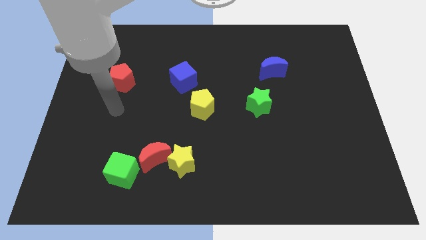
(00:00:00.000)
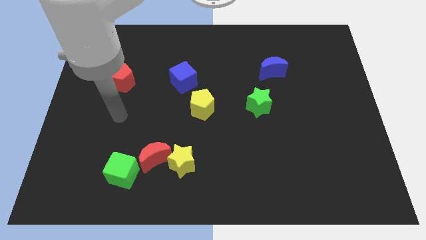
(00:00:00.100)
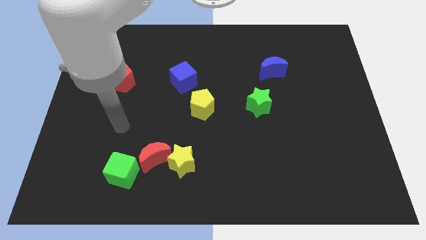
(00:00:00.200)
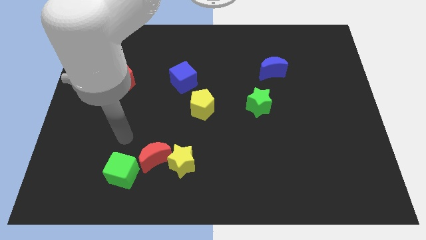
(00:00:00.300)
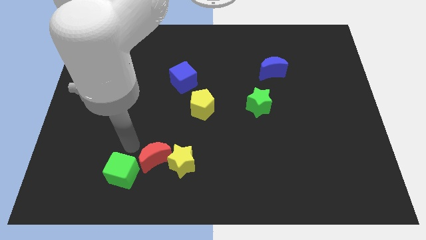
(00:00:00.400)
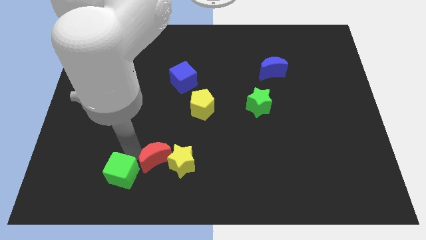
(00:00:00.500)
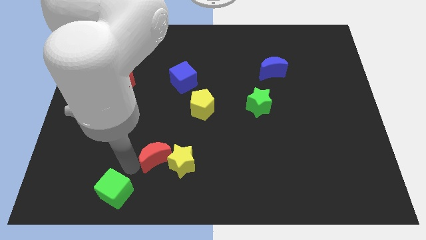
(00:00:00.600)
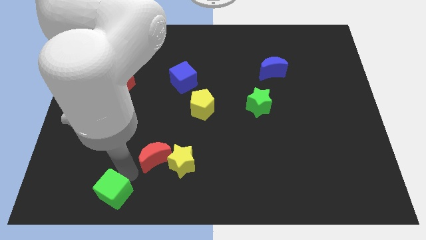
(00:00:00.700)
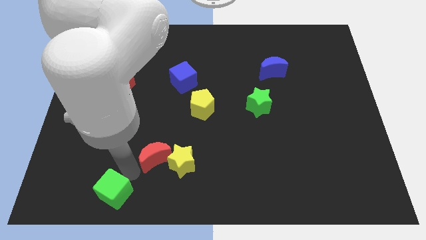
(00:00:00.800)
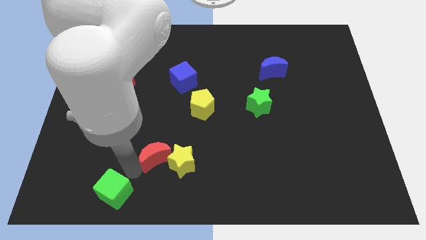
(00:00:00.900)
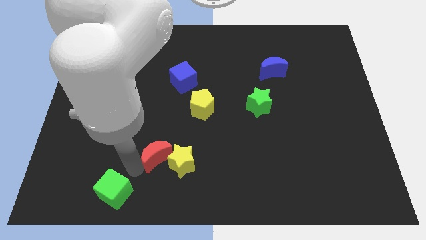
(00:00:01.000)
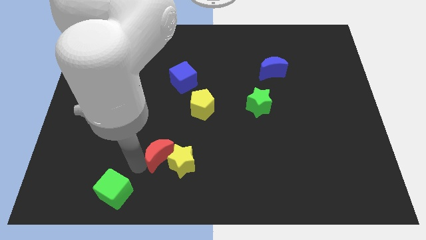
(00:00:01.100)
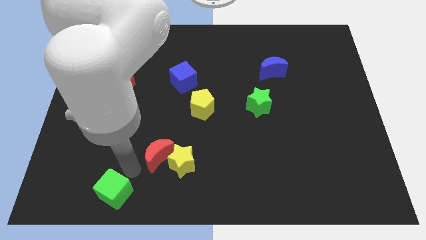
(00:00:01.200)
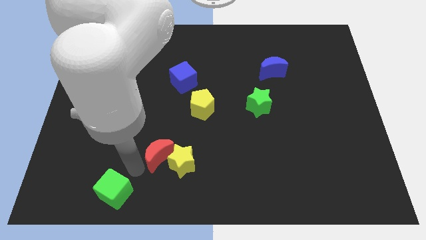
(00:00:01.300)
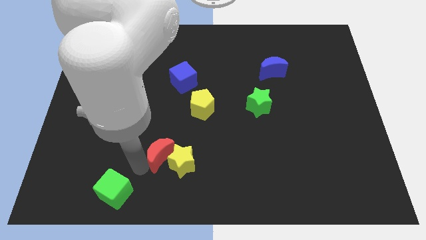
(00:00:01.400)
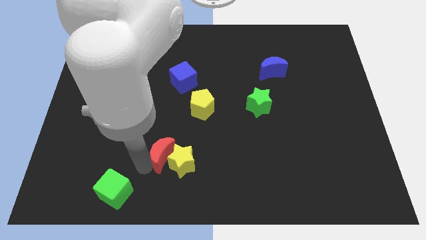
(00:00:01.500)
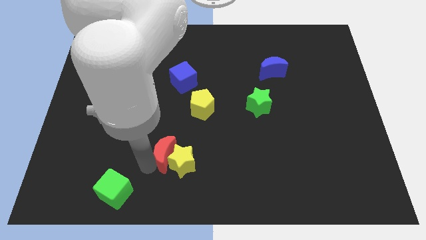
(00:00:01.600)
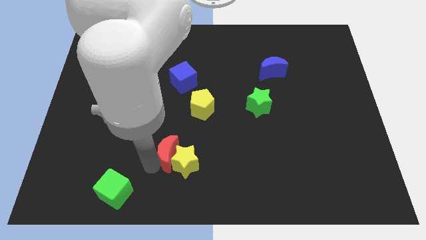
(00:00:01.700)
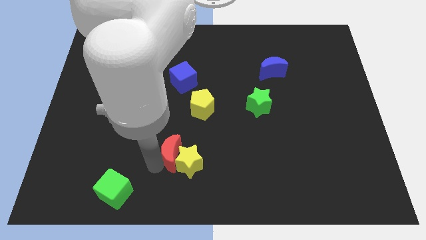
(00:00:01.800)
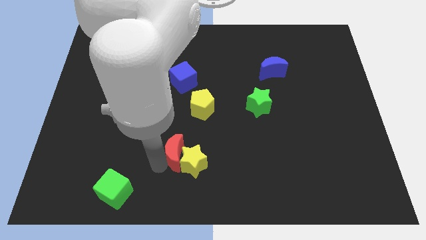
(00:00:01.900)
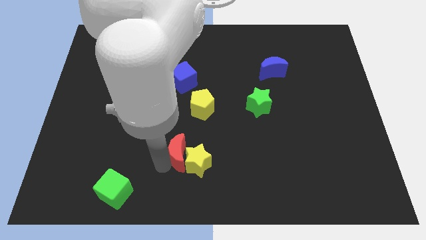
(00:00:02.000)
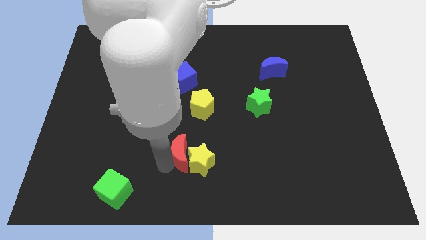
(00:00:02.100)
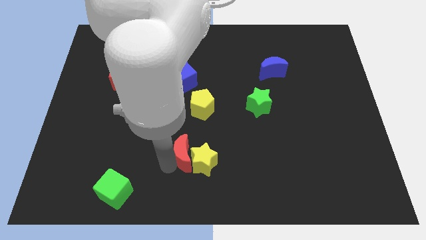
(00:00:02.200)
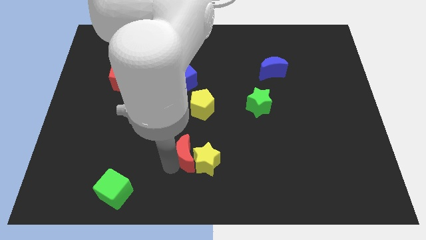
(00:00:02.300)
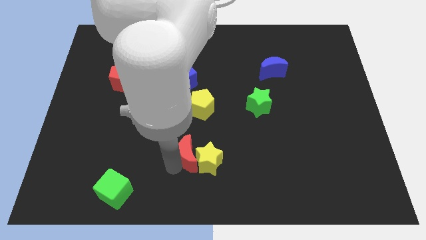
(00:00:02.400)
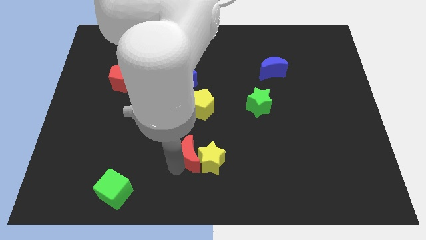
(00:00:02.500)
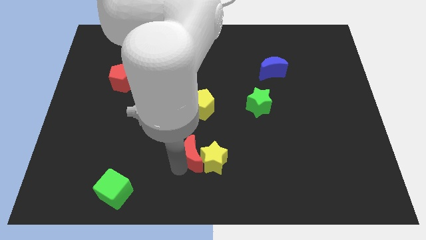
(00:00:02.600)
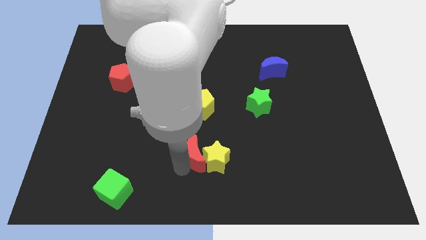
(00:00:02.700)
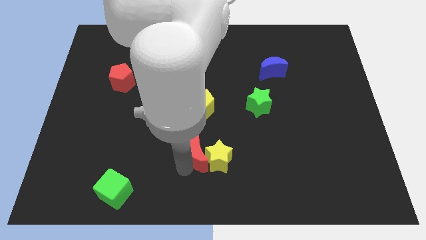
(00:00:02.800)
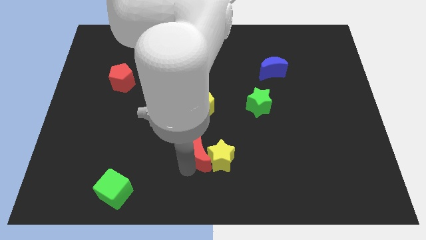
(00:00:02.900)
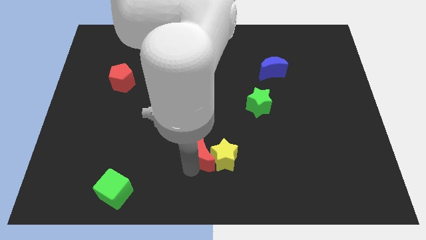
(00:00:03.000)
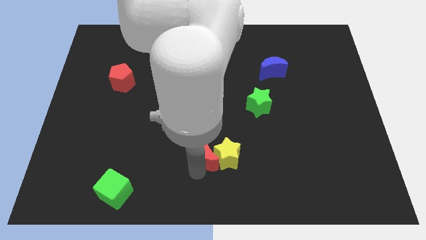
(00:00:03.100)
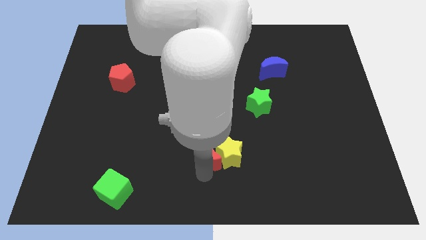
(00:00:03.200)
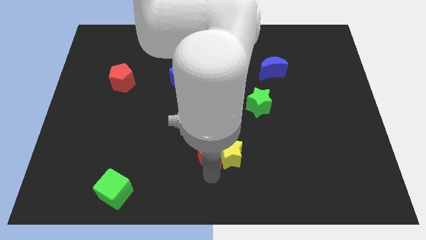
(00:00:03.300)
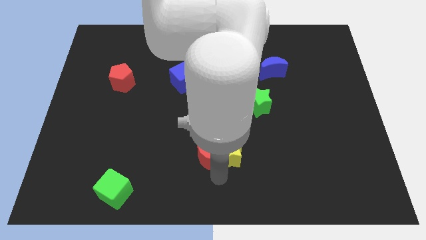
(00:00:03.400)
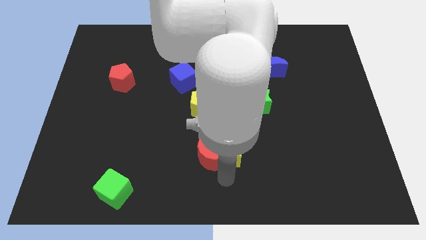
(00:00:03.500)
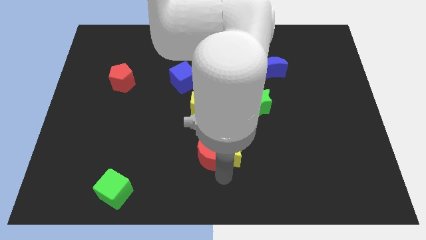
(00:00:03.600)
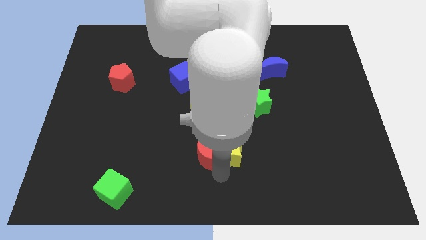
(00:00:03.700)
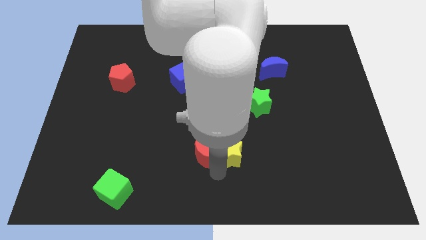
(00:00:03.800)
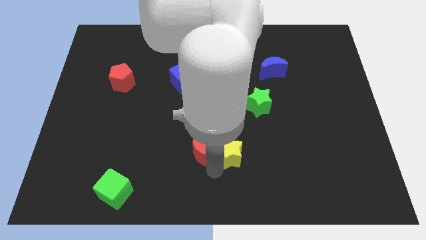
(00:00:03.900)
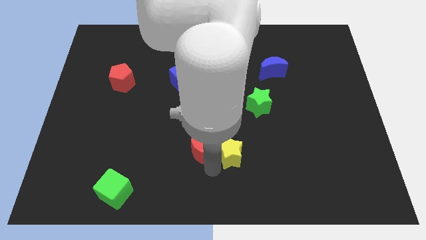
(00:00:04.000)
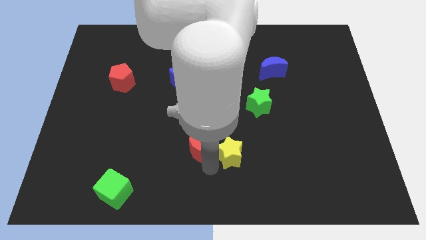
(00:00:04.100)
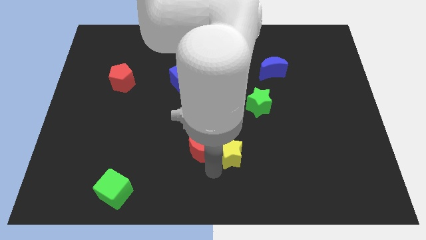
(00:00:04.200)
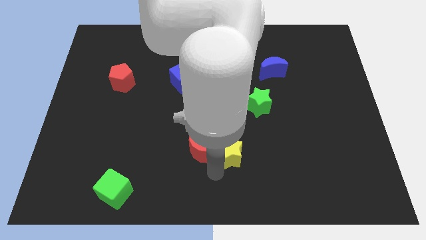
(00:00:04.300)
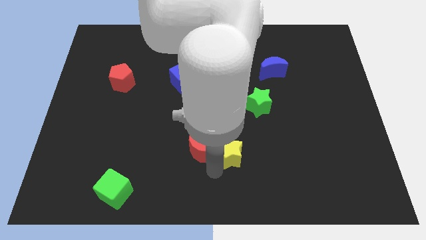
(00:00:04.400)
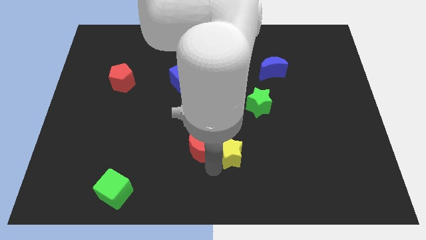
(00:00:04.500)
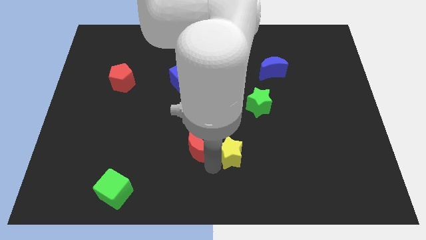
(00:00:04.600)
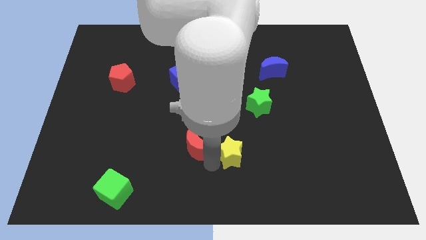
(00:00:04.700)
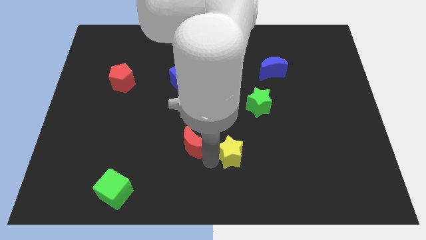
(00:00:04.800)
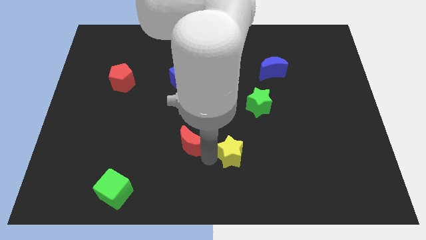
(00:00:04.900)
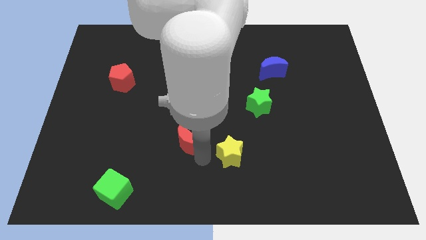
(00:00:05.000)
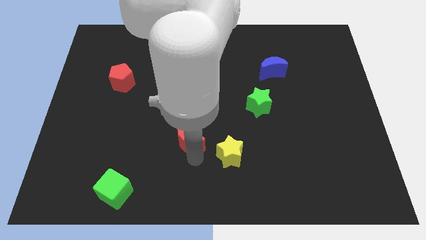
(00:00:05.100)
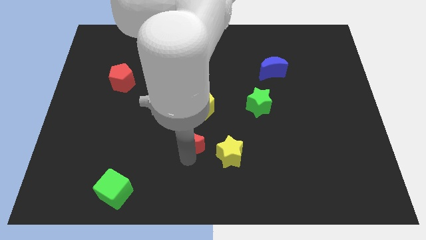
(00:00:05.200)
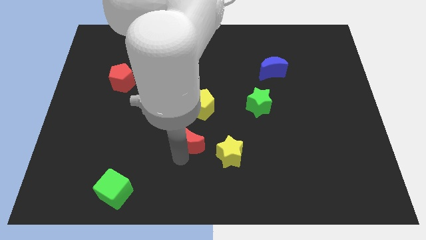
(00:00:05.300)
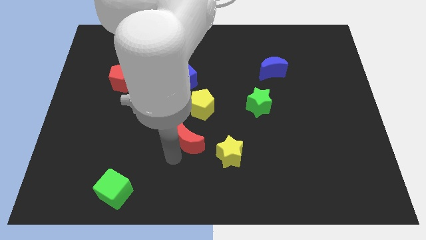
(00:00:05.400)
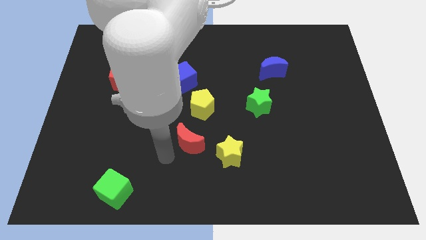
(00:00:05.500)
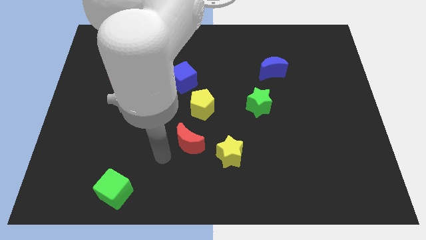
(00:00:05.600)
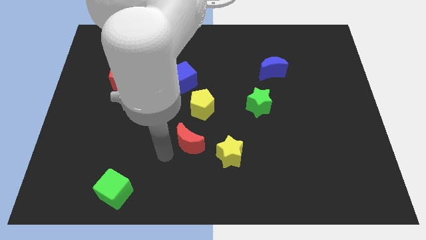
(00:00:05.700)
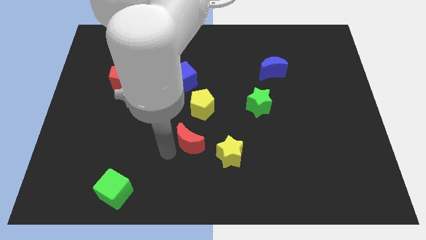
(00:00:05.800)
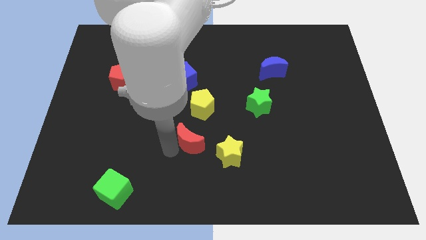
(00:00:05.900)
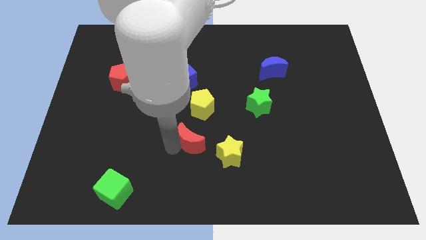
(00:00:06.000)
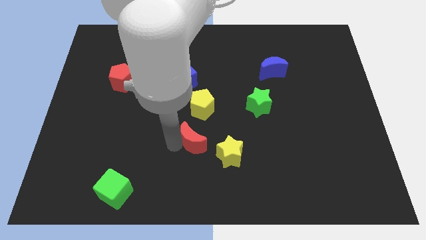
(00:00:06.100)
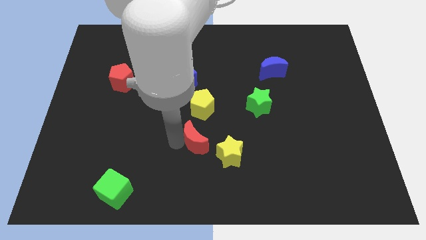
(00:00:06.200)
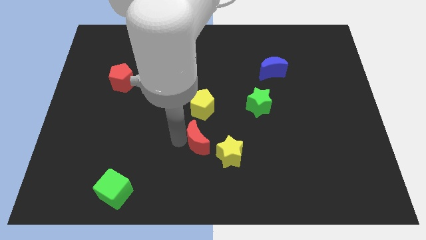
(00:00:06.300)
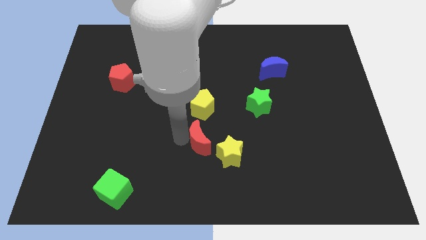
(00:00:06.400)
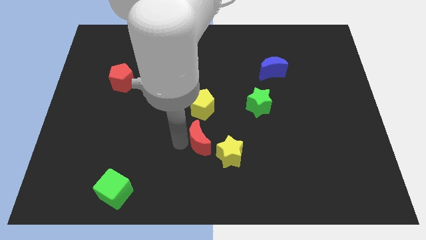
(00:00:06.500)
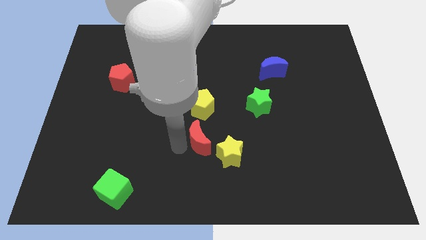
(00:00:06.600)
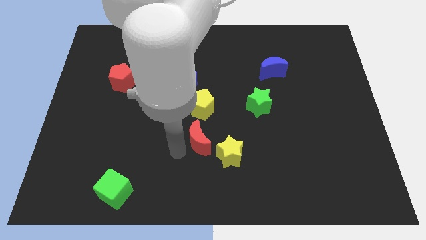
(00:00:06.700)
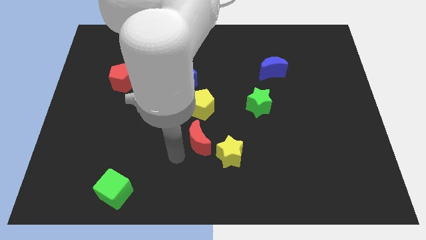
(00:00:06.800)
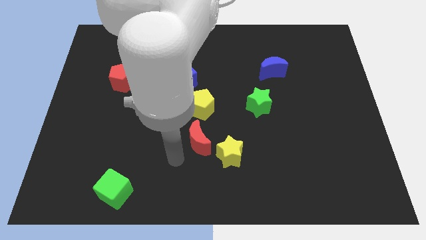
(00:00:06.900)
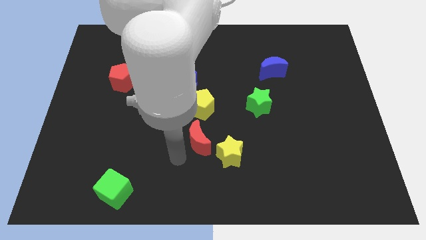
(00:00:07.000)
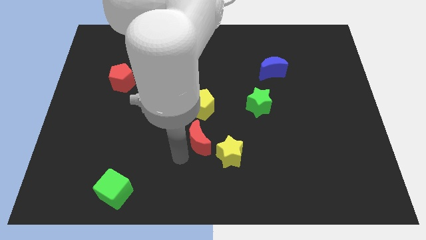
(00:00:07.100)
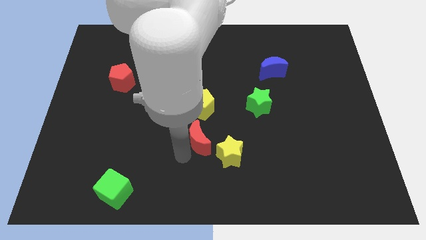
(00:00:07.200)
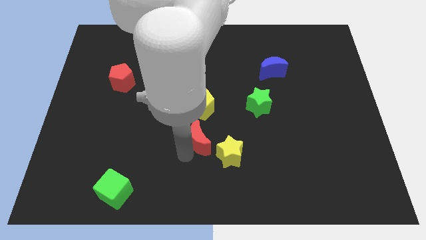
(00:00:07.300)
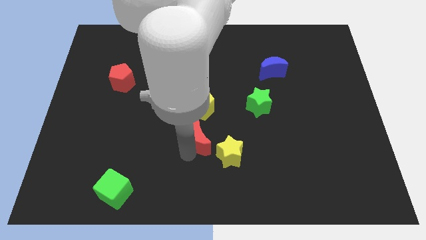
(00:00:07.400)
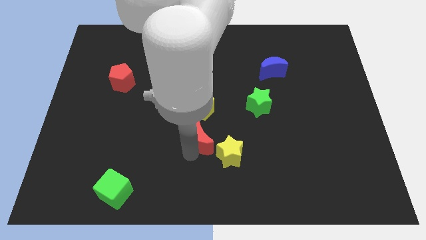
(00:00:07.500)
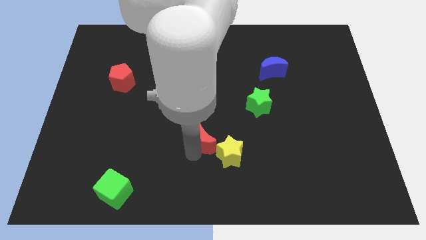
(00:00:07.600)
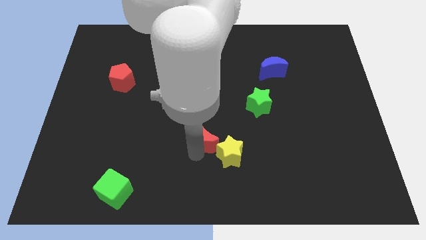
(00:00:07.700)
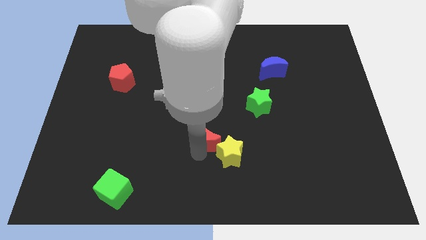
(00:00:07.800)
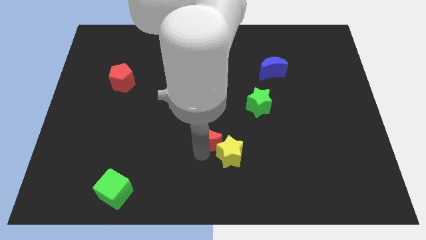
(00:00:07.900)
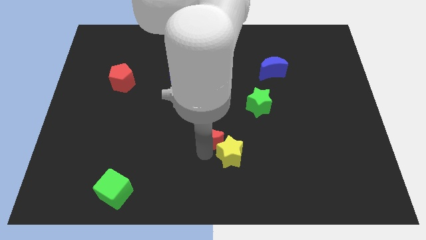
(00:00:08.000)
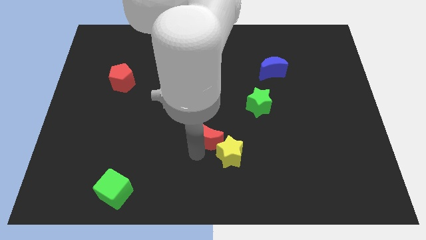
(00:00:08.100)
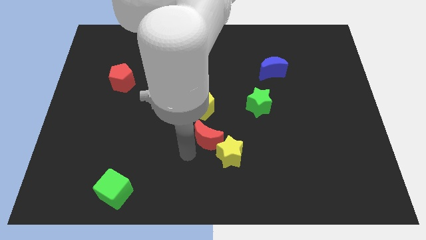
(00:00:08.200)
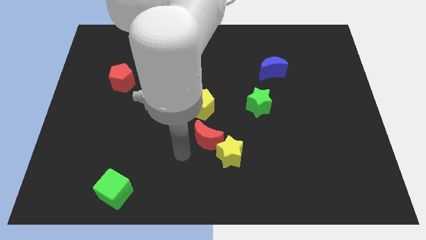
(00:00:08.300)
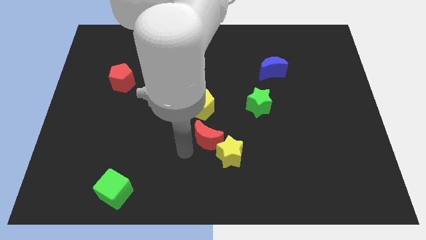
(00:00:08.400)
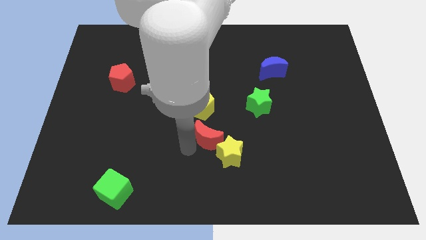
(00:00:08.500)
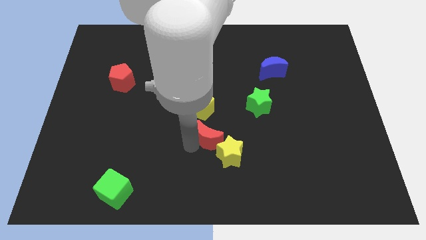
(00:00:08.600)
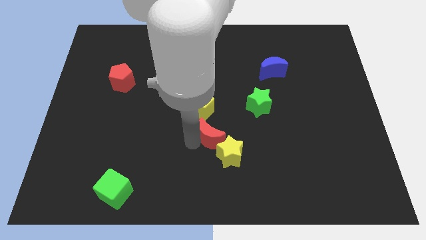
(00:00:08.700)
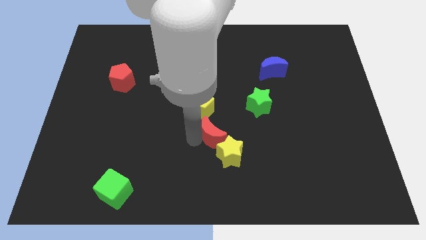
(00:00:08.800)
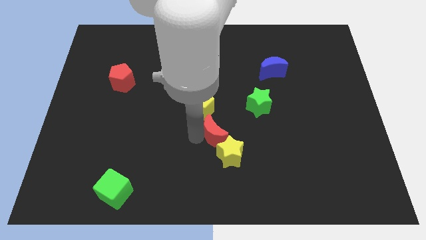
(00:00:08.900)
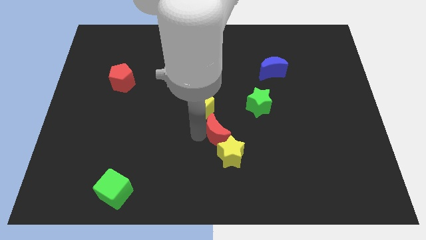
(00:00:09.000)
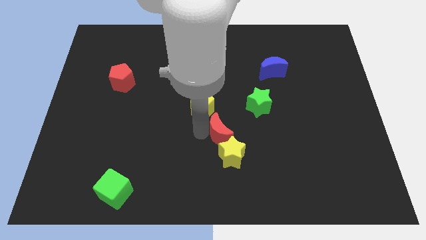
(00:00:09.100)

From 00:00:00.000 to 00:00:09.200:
slide the red moon to the bottom left side of the green star
